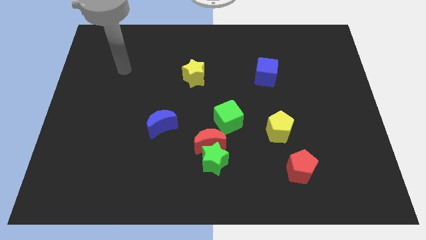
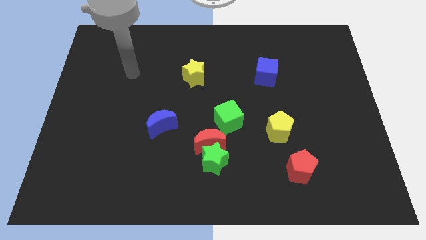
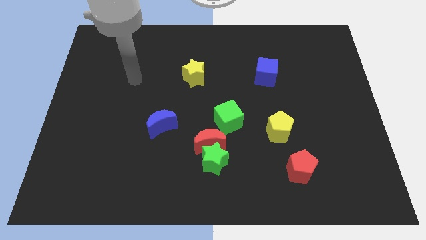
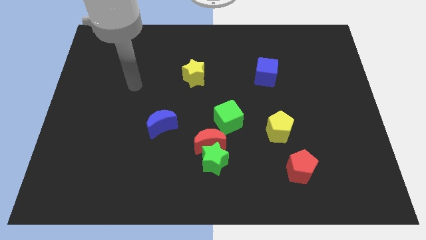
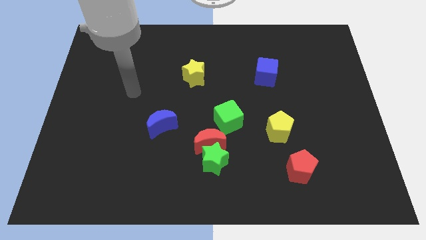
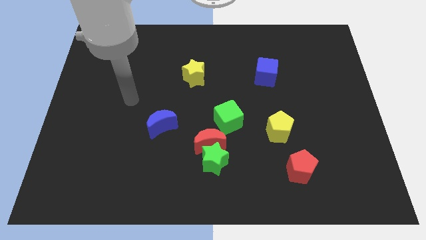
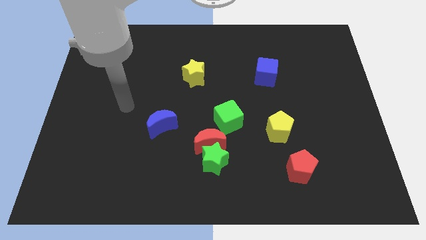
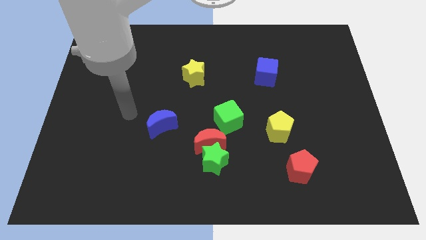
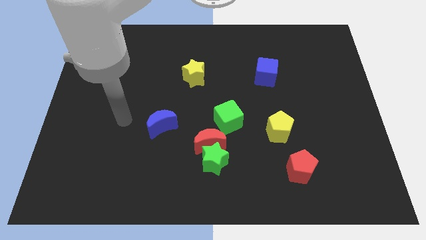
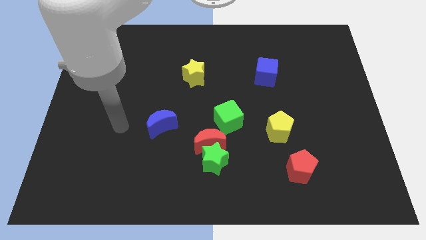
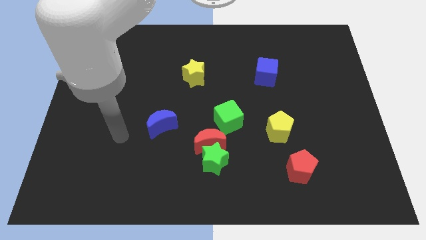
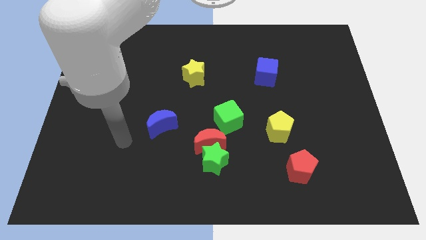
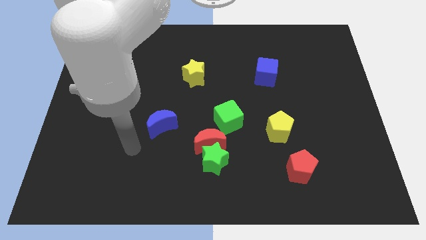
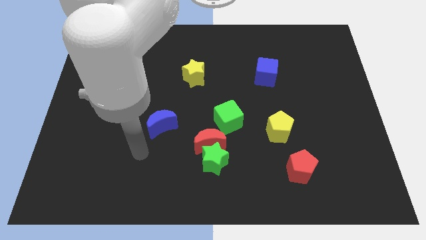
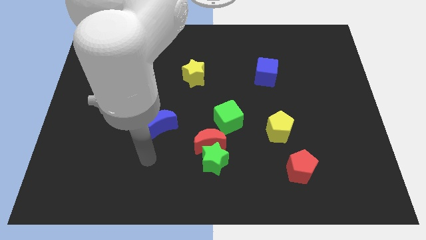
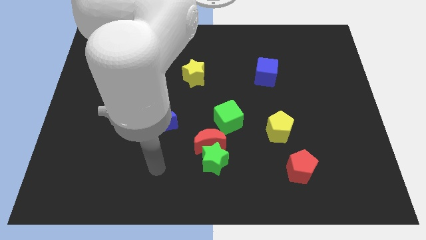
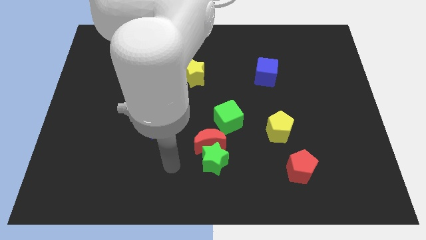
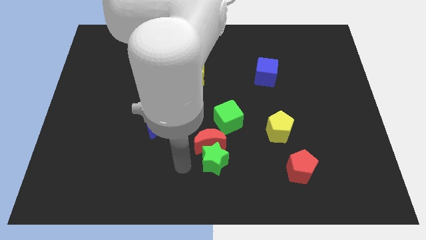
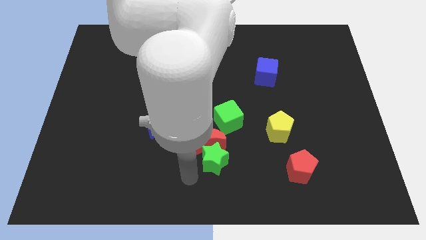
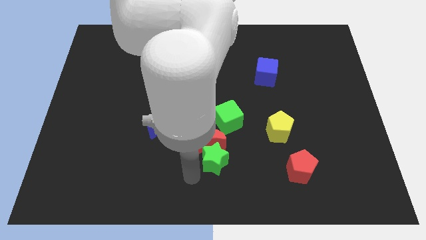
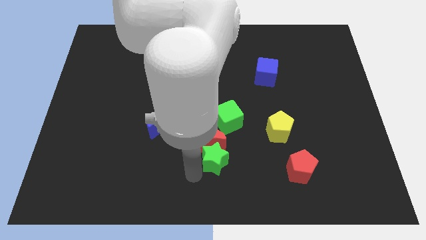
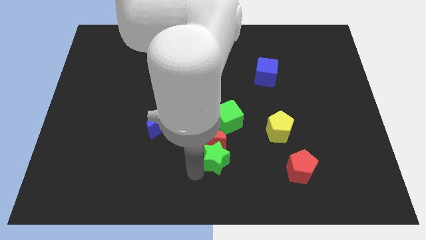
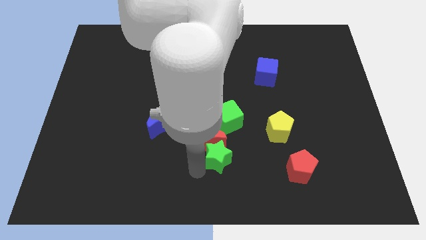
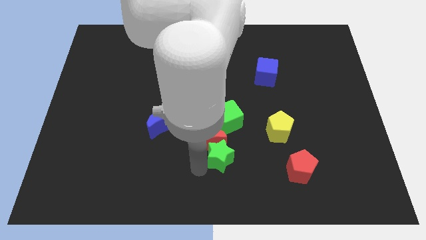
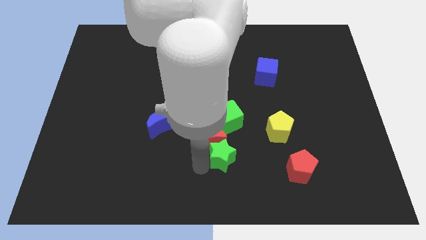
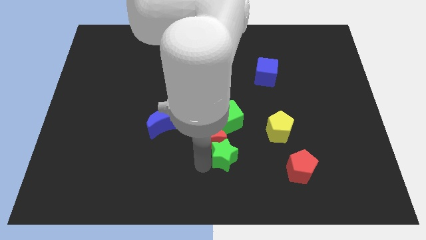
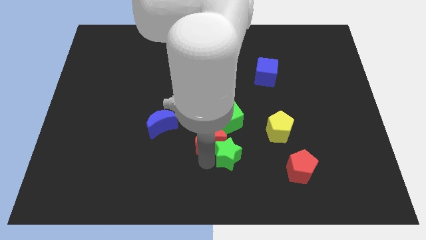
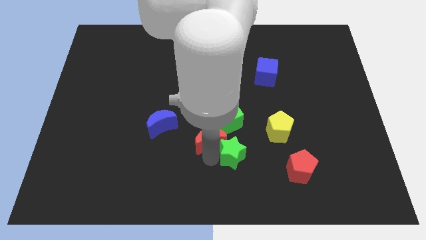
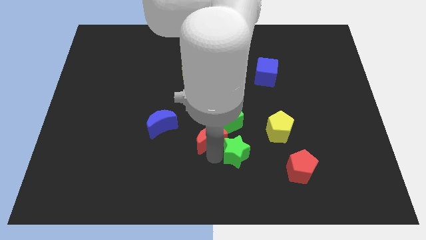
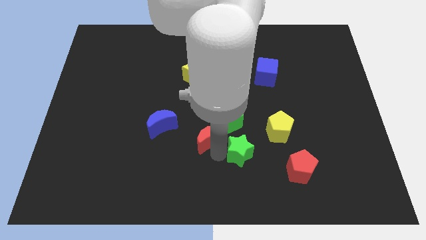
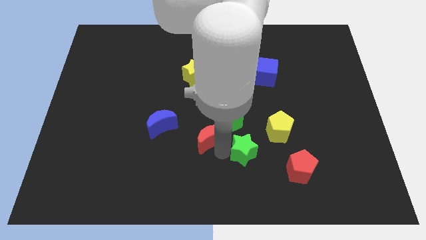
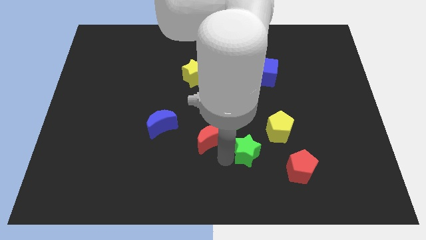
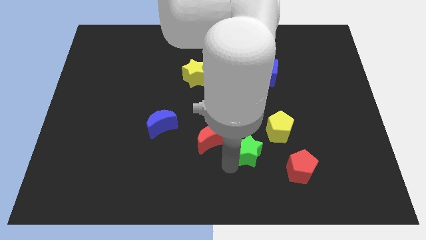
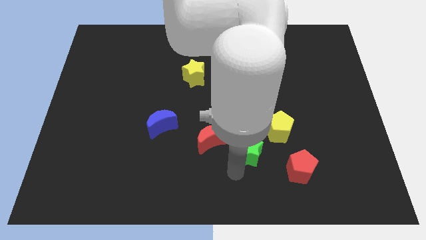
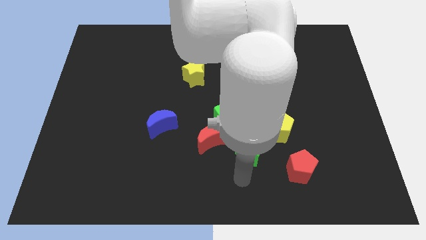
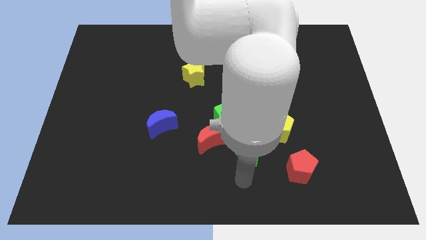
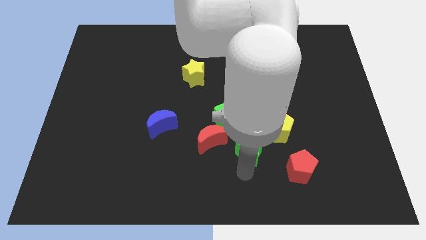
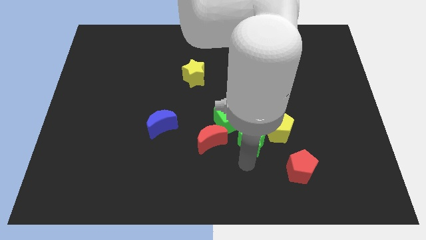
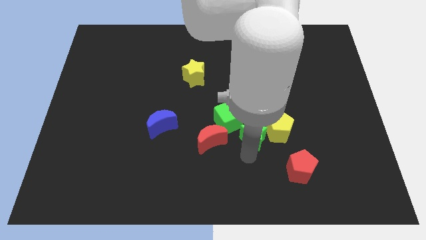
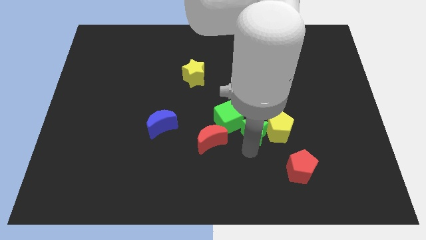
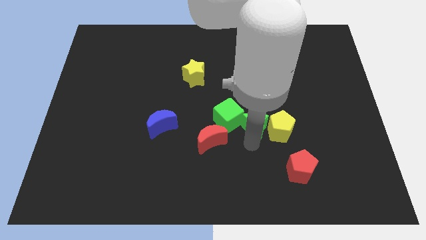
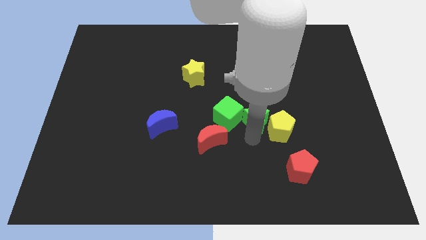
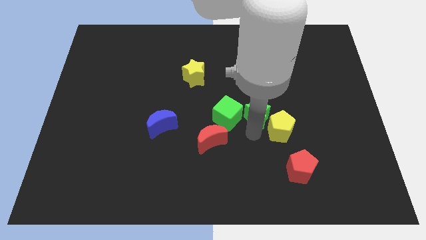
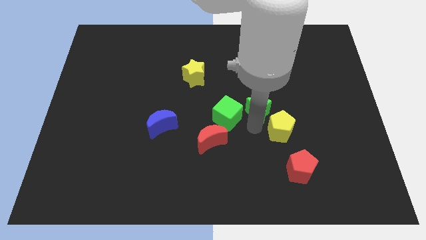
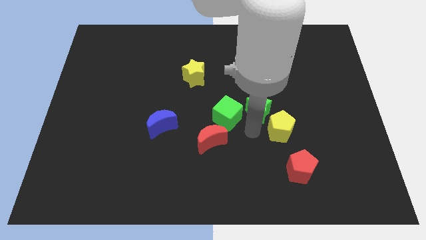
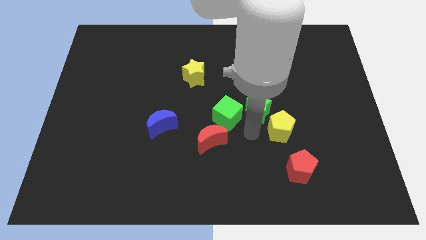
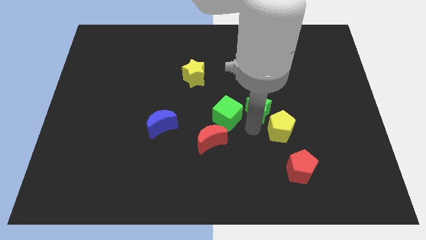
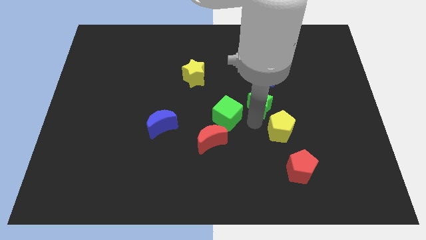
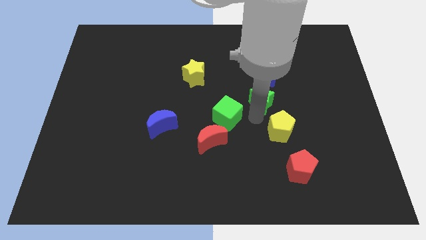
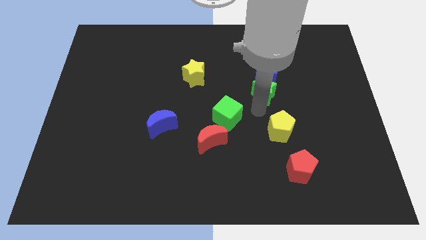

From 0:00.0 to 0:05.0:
put the green star to the blue cube

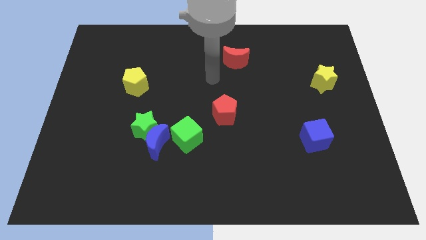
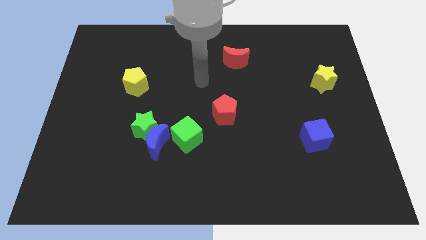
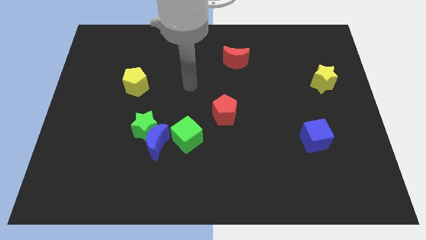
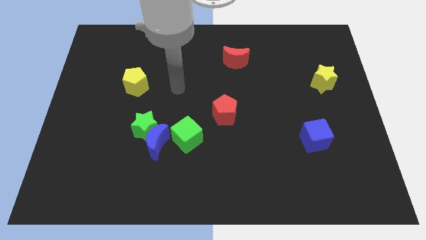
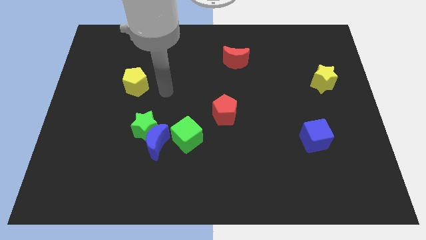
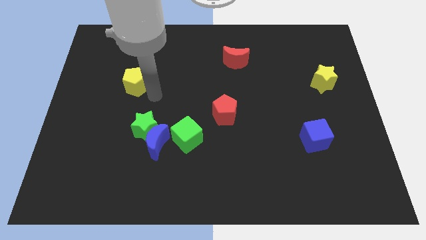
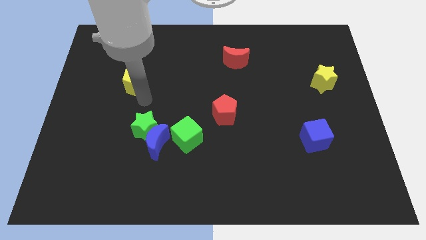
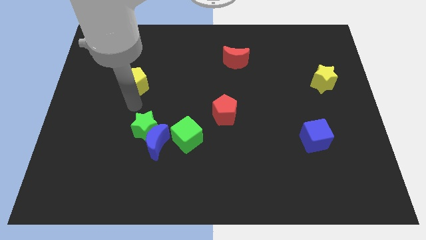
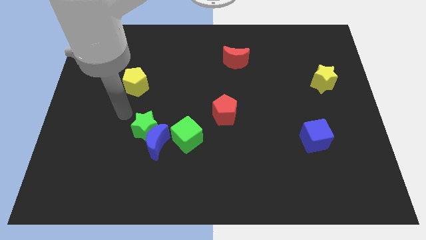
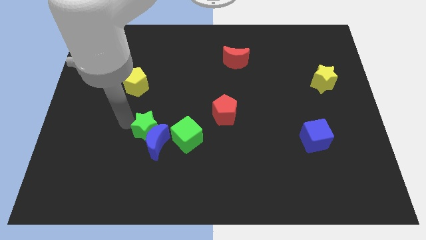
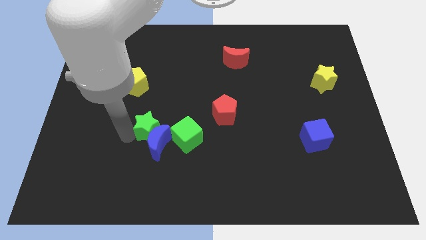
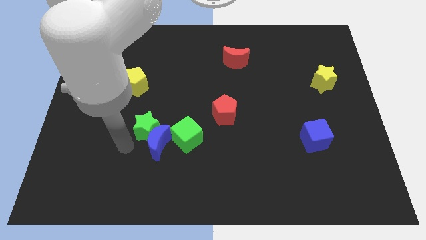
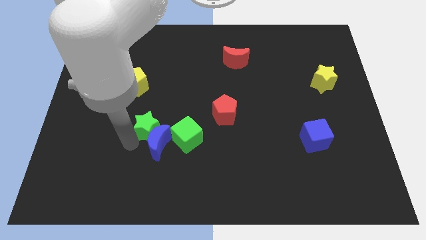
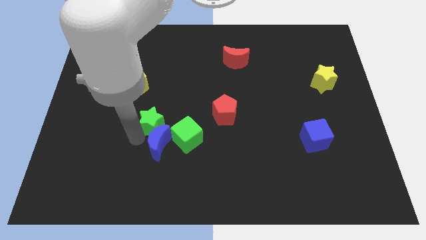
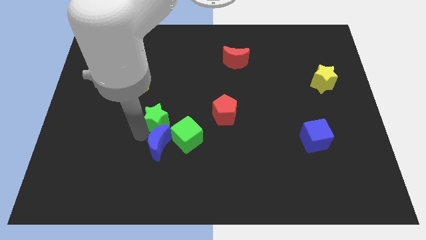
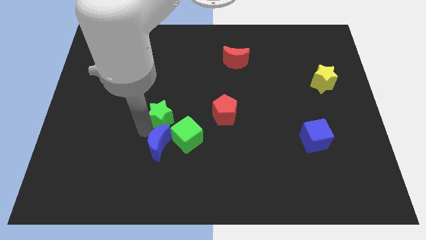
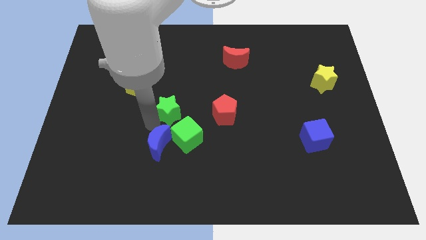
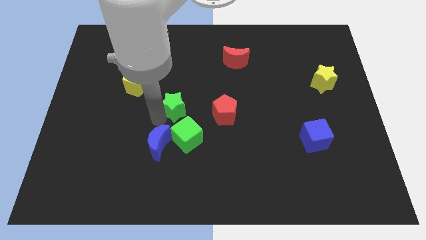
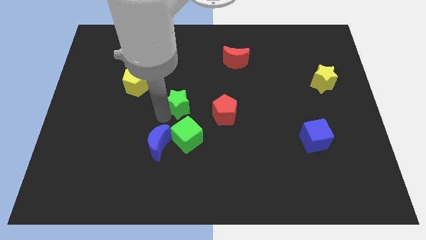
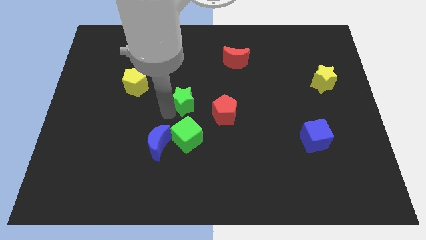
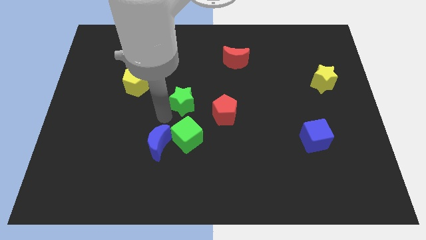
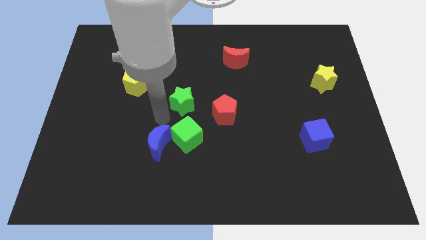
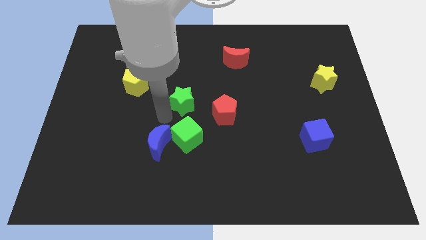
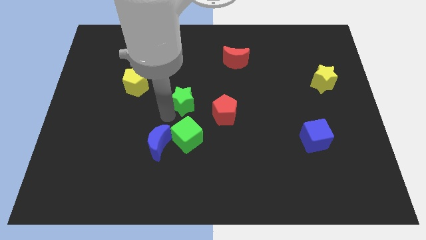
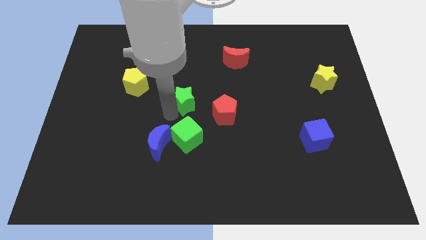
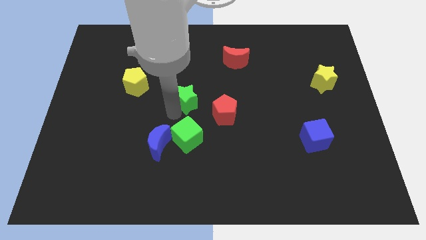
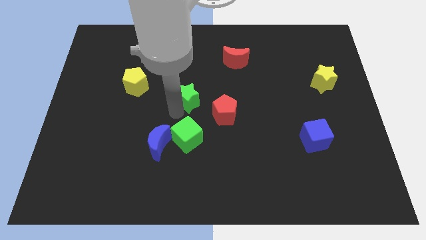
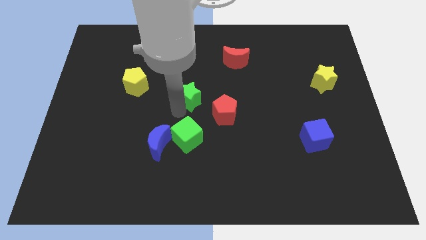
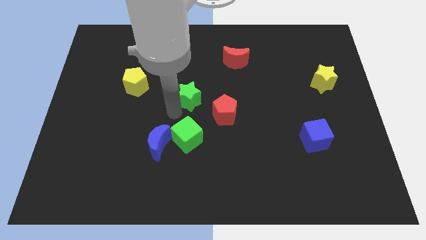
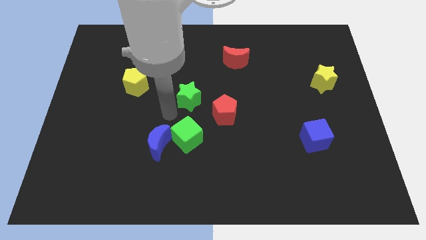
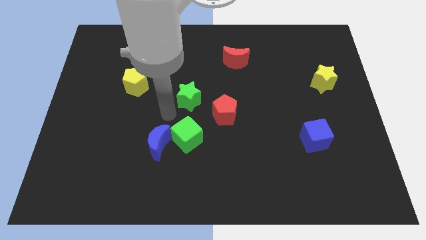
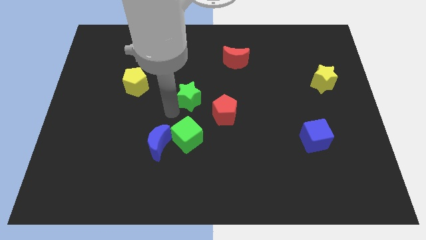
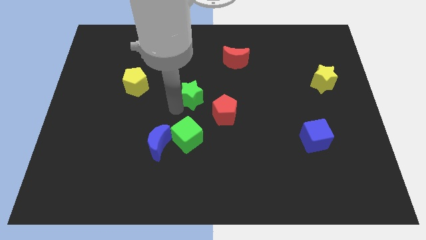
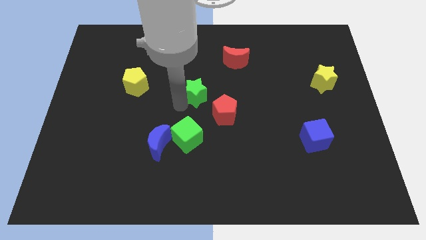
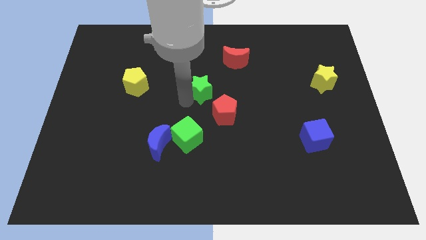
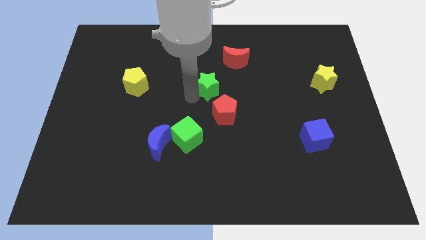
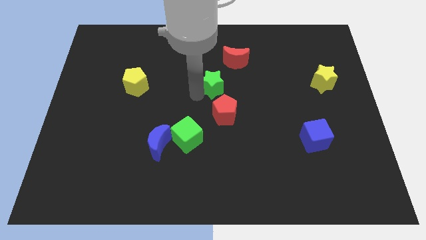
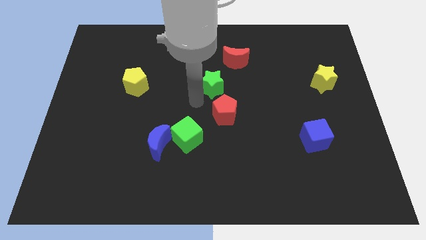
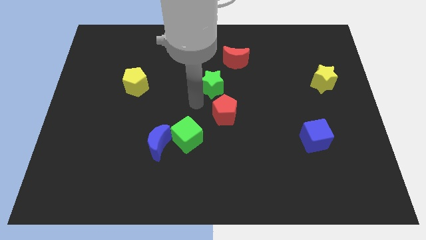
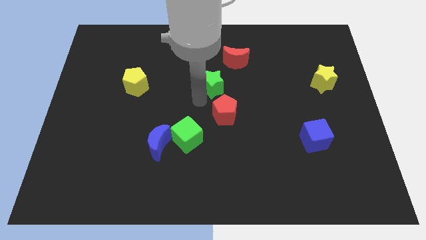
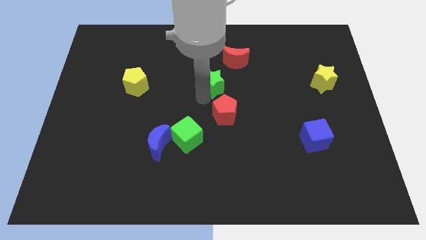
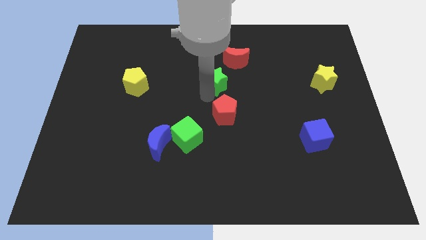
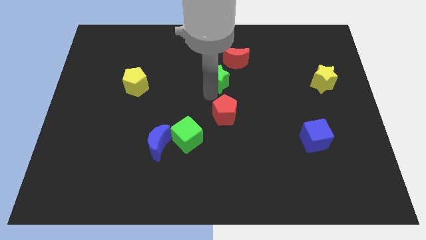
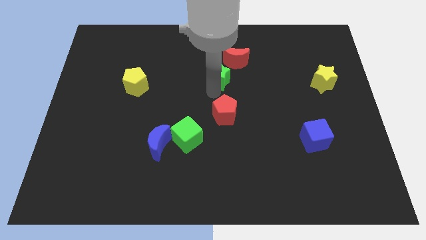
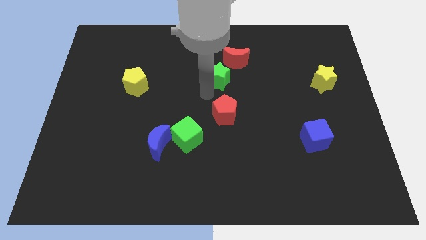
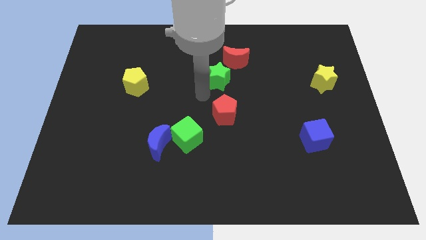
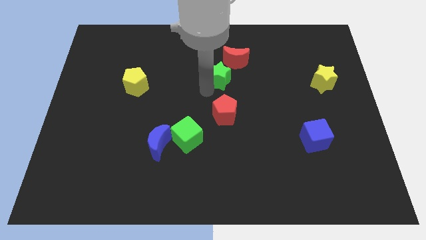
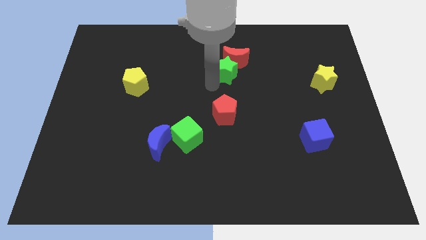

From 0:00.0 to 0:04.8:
put the green star towards the red moon
